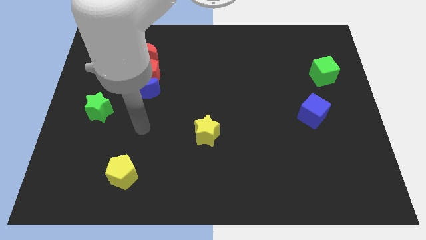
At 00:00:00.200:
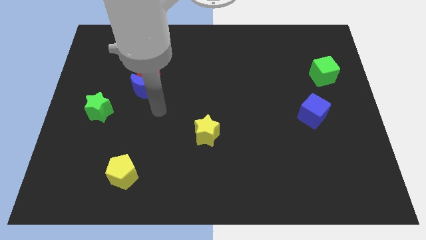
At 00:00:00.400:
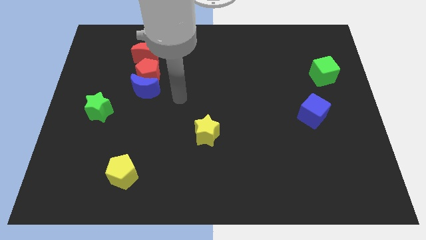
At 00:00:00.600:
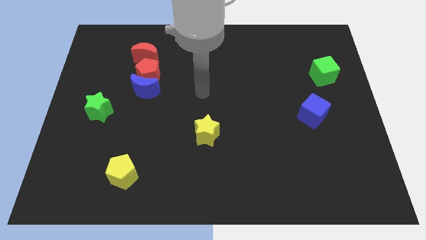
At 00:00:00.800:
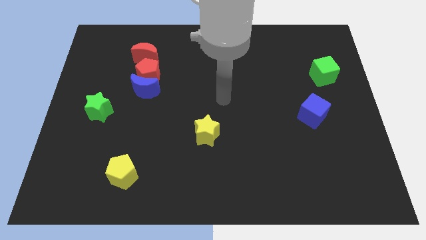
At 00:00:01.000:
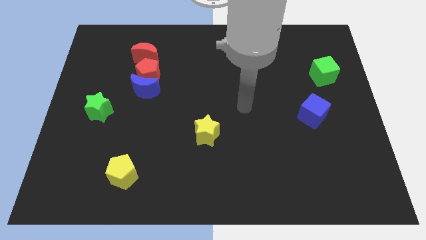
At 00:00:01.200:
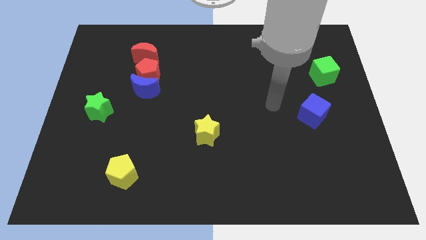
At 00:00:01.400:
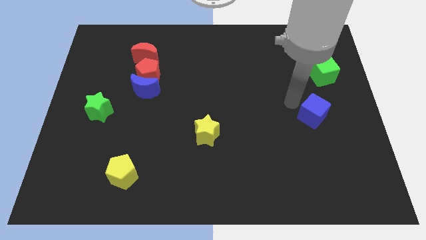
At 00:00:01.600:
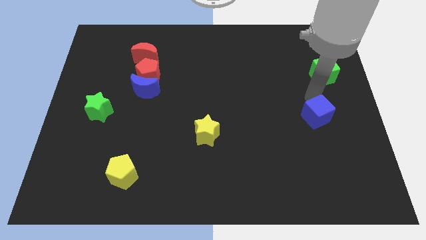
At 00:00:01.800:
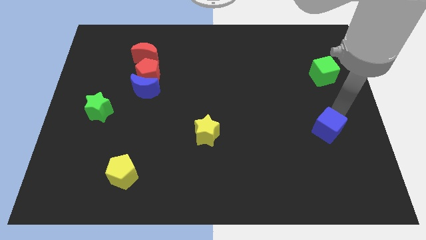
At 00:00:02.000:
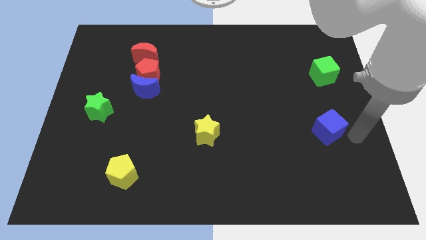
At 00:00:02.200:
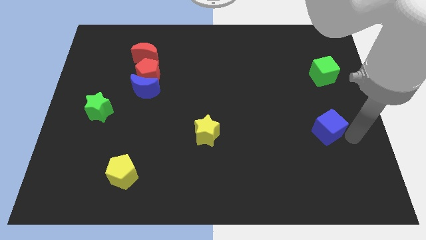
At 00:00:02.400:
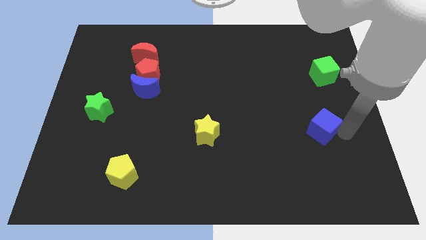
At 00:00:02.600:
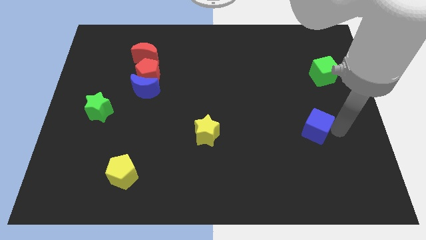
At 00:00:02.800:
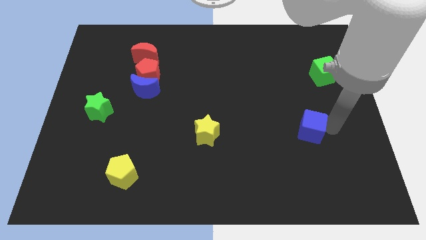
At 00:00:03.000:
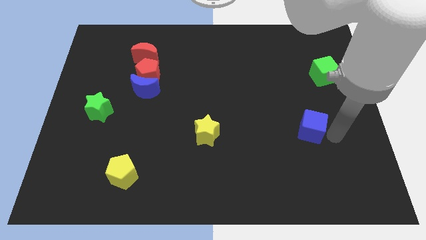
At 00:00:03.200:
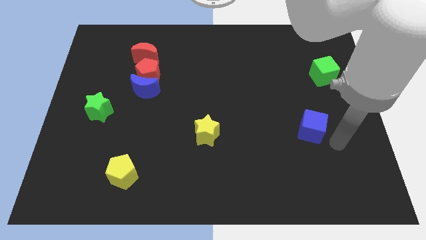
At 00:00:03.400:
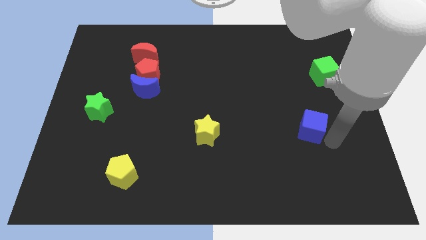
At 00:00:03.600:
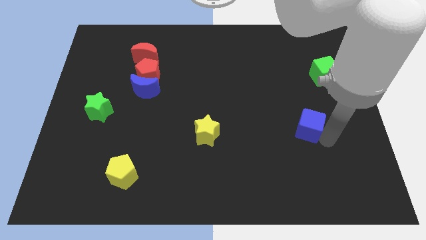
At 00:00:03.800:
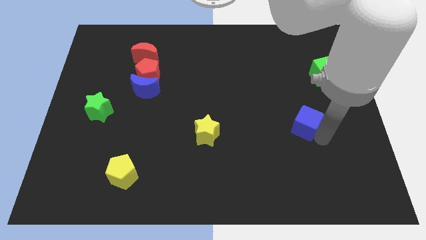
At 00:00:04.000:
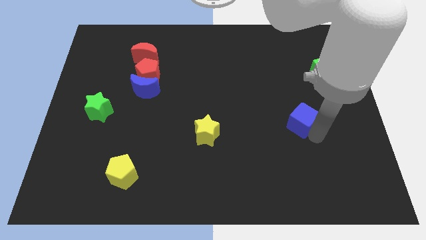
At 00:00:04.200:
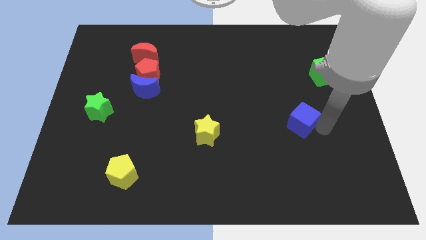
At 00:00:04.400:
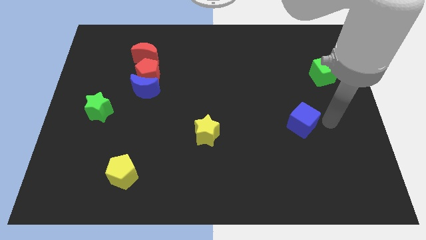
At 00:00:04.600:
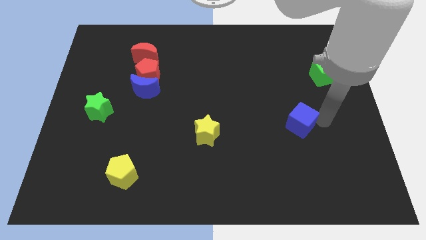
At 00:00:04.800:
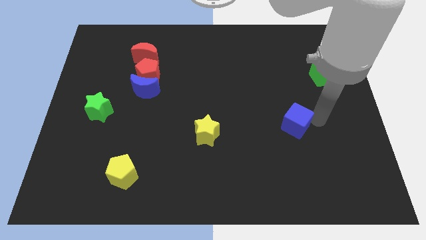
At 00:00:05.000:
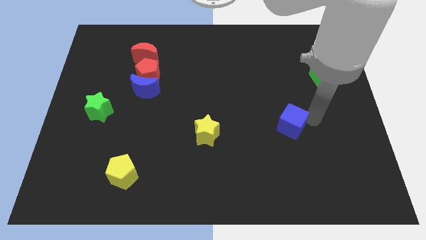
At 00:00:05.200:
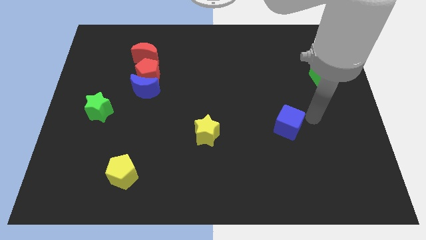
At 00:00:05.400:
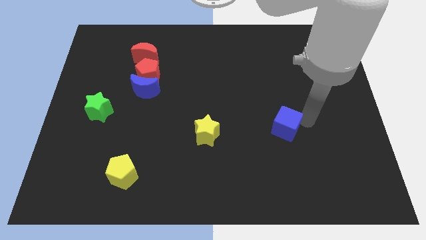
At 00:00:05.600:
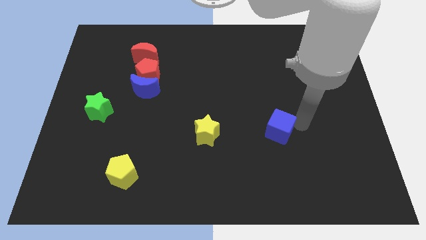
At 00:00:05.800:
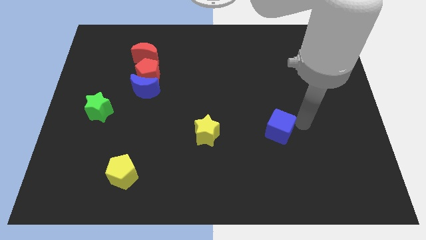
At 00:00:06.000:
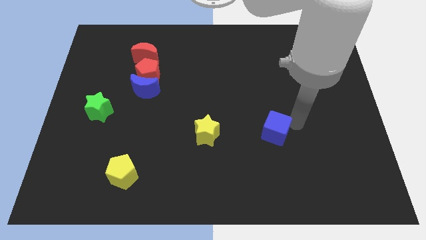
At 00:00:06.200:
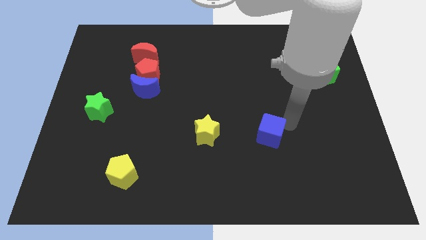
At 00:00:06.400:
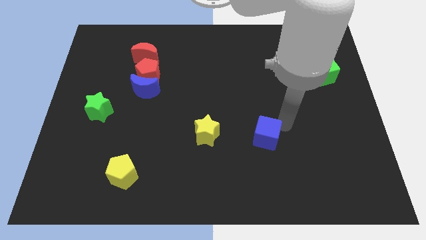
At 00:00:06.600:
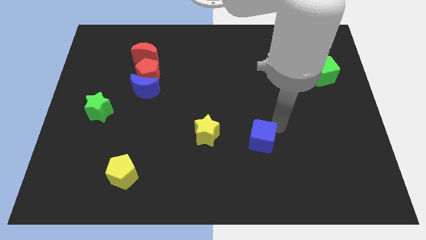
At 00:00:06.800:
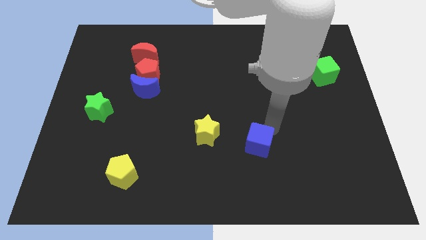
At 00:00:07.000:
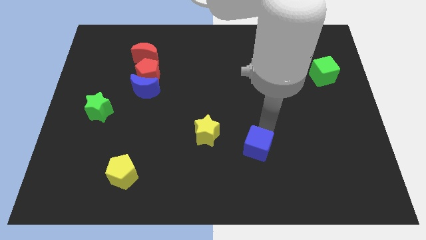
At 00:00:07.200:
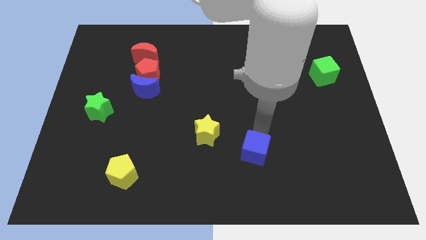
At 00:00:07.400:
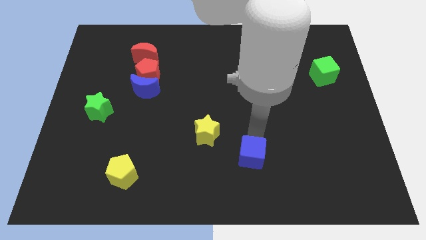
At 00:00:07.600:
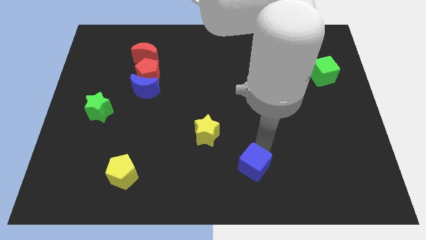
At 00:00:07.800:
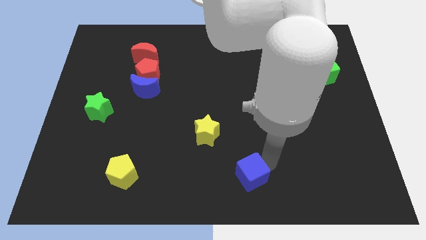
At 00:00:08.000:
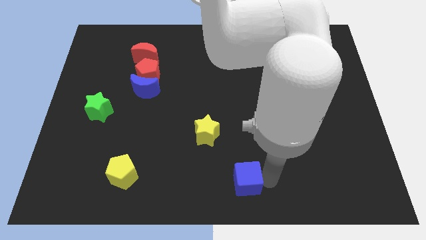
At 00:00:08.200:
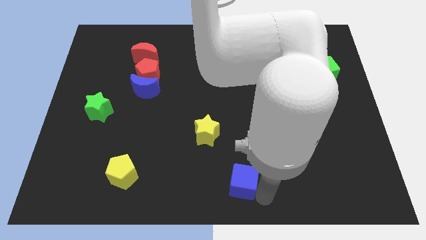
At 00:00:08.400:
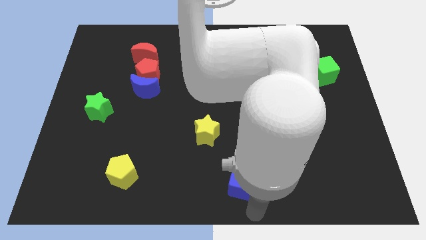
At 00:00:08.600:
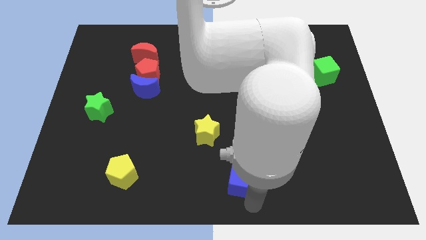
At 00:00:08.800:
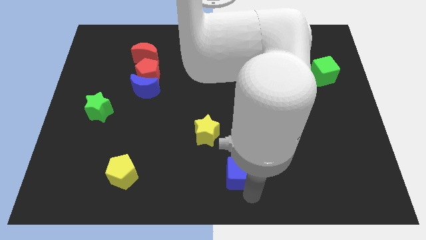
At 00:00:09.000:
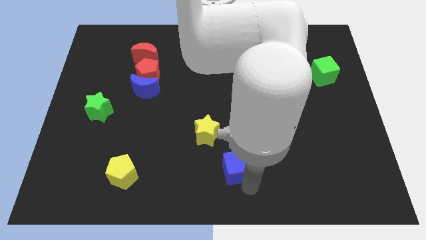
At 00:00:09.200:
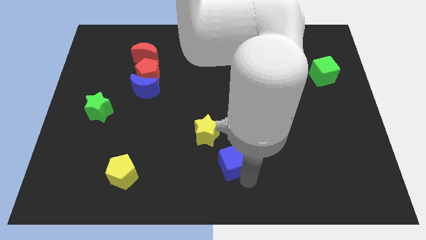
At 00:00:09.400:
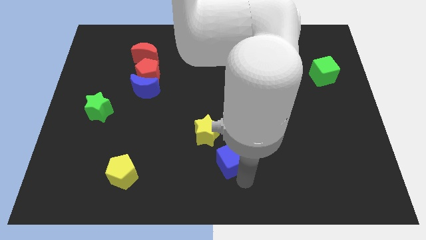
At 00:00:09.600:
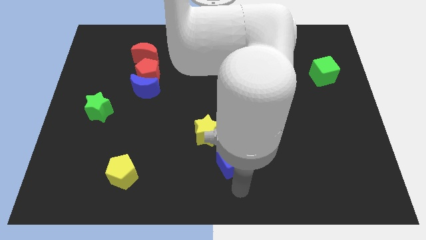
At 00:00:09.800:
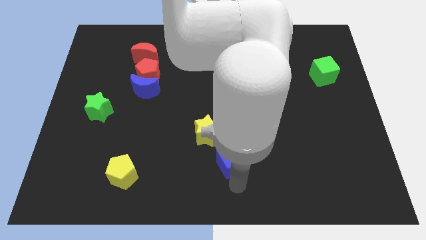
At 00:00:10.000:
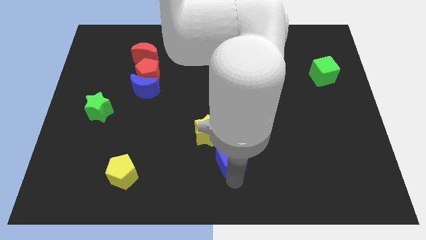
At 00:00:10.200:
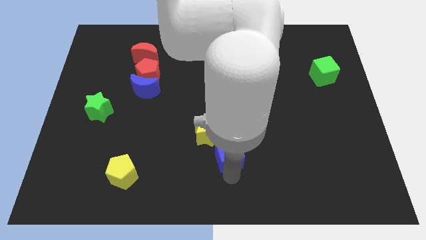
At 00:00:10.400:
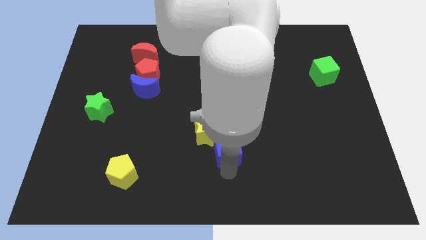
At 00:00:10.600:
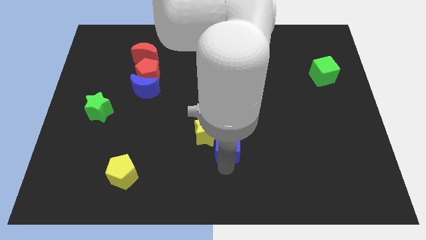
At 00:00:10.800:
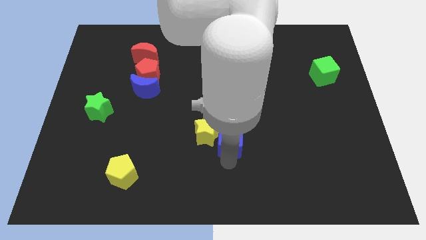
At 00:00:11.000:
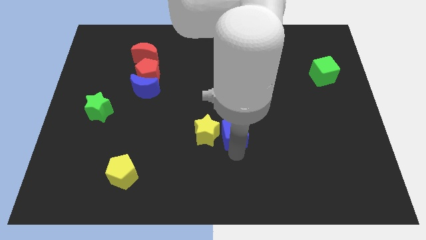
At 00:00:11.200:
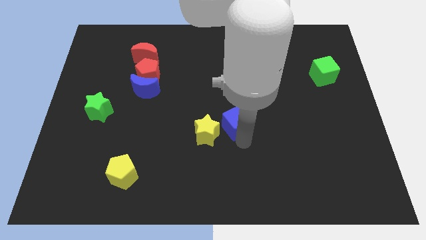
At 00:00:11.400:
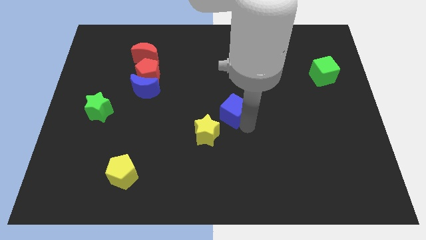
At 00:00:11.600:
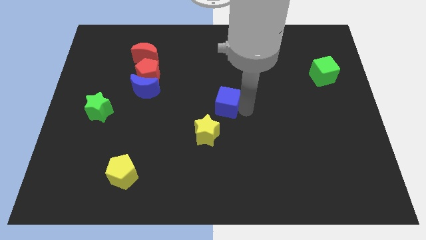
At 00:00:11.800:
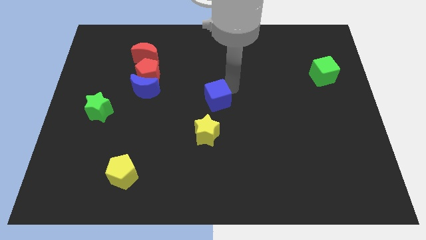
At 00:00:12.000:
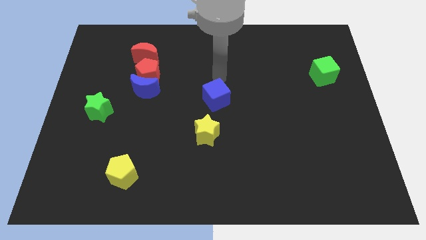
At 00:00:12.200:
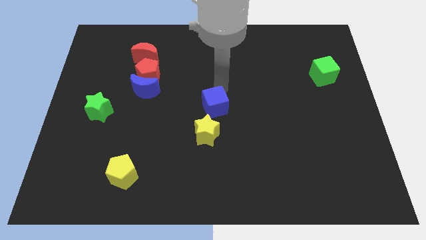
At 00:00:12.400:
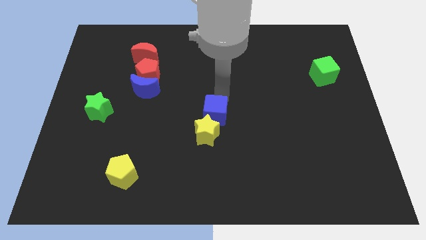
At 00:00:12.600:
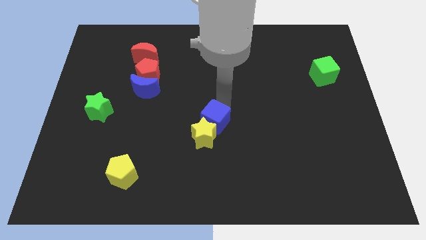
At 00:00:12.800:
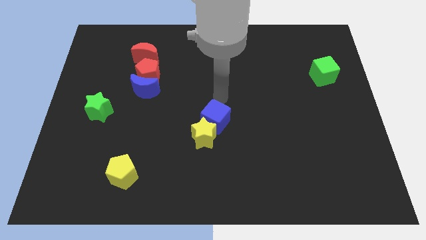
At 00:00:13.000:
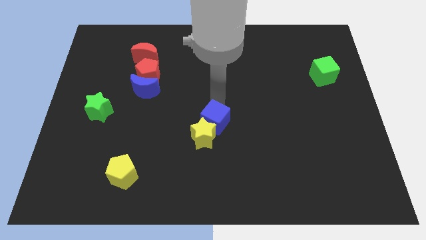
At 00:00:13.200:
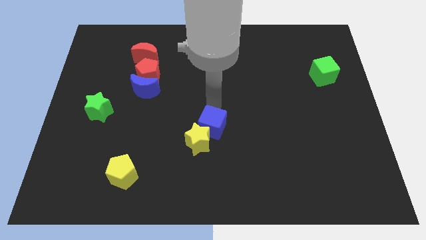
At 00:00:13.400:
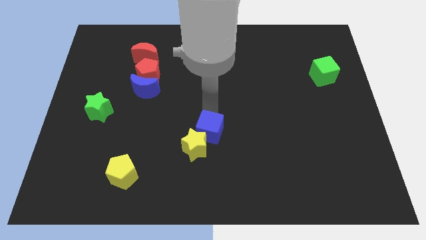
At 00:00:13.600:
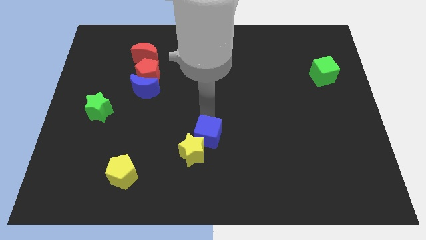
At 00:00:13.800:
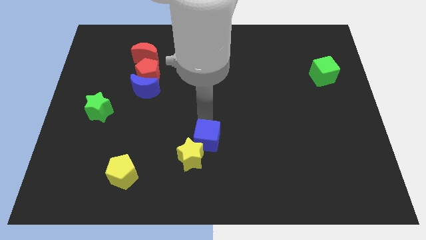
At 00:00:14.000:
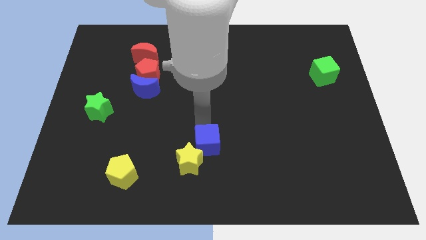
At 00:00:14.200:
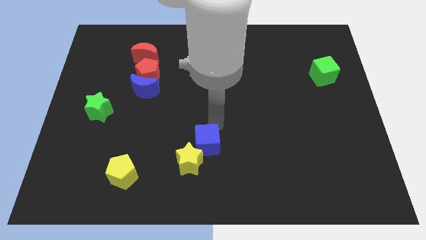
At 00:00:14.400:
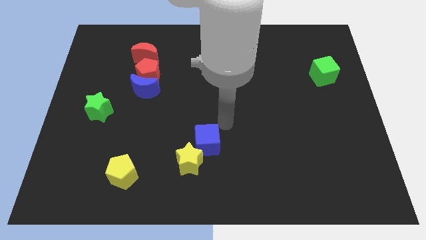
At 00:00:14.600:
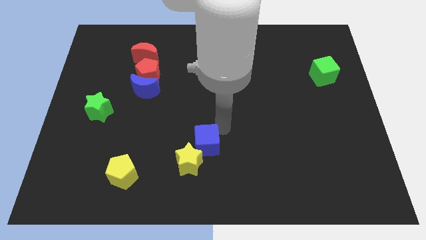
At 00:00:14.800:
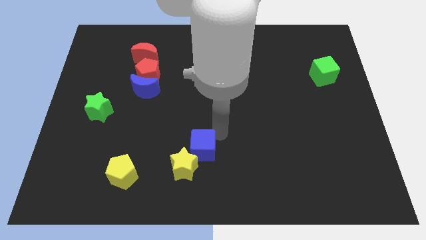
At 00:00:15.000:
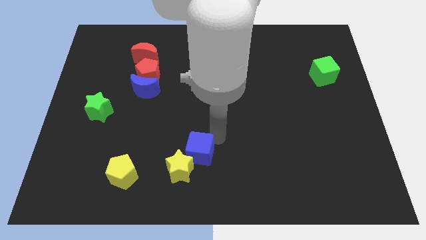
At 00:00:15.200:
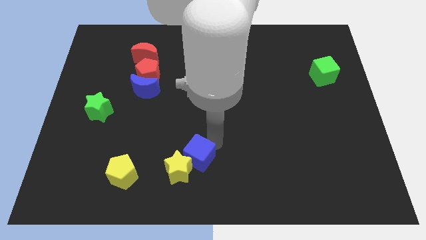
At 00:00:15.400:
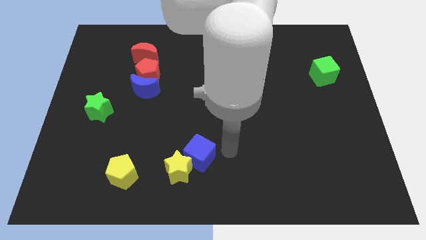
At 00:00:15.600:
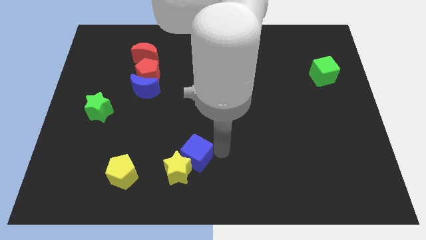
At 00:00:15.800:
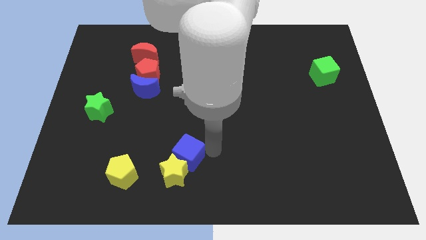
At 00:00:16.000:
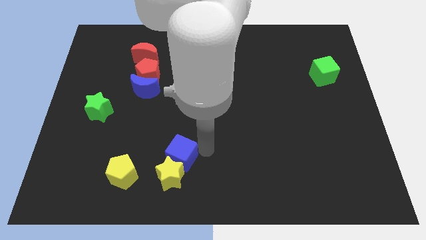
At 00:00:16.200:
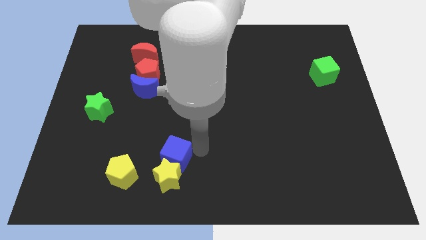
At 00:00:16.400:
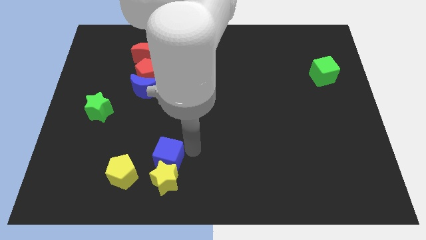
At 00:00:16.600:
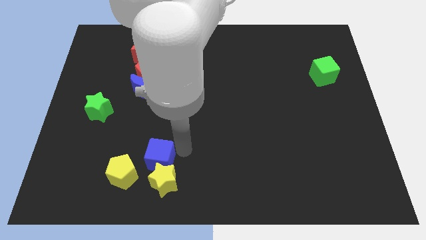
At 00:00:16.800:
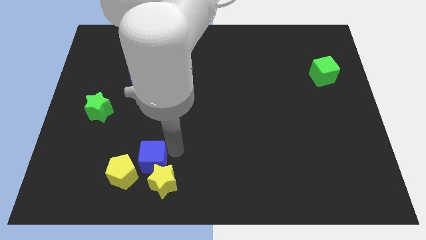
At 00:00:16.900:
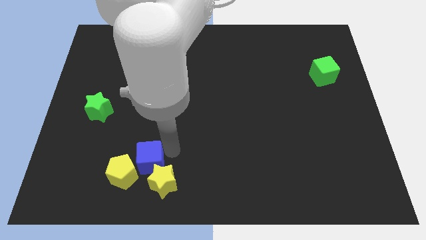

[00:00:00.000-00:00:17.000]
slide the blue cube towards the yellow pentagon
